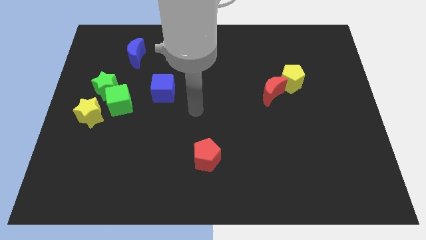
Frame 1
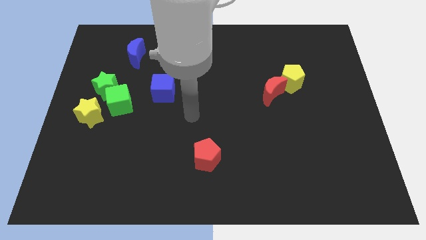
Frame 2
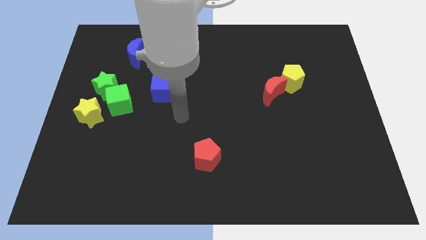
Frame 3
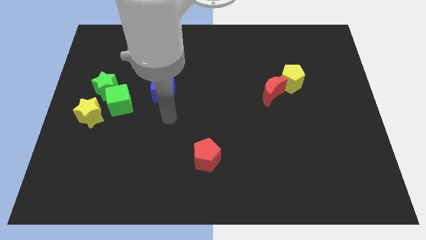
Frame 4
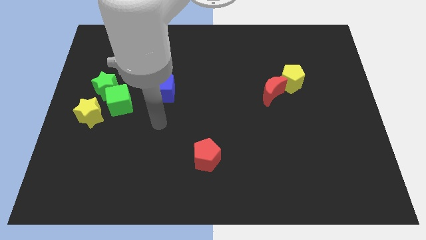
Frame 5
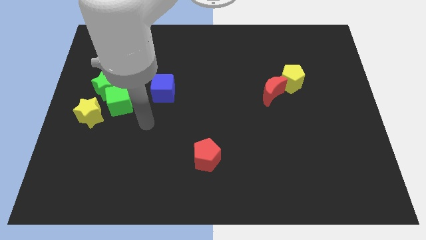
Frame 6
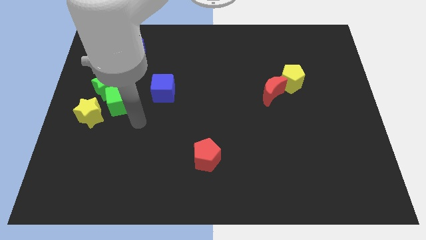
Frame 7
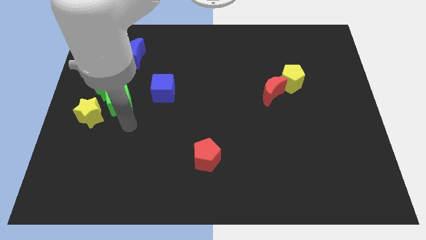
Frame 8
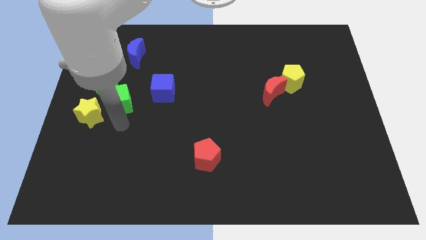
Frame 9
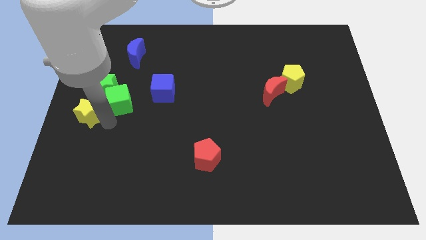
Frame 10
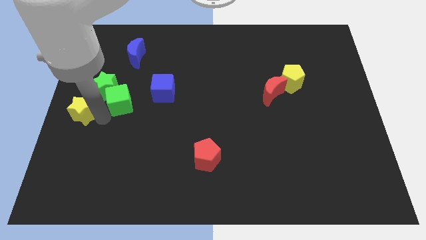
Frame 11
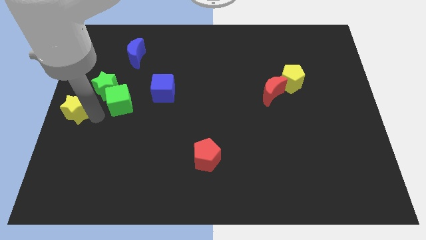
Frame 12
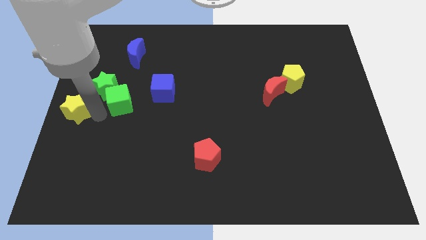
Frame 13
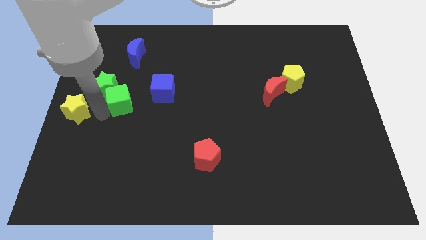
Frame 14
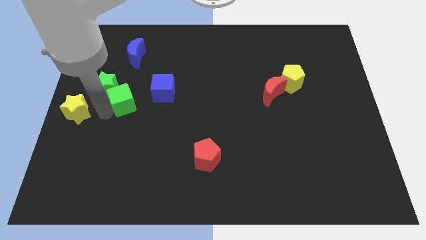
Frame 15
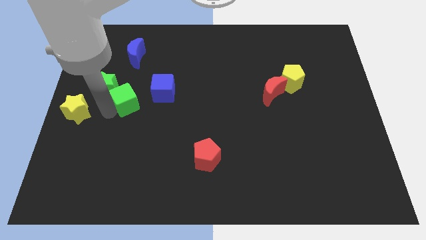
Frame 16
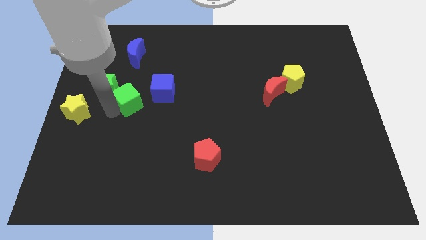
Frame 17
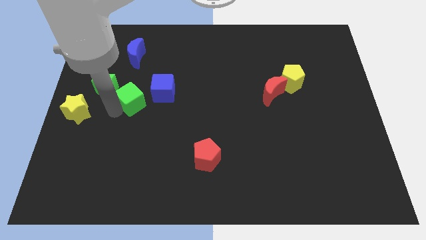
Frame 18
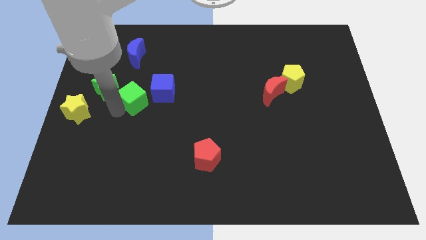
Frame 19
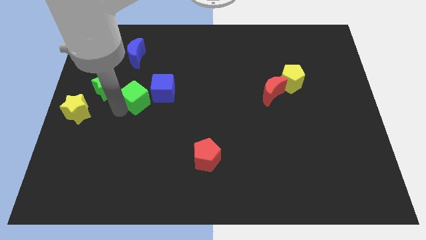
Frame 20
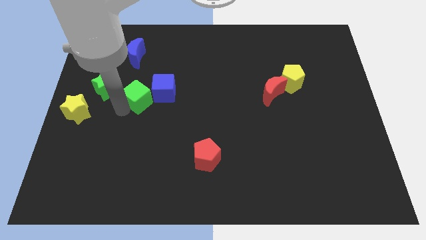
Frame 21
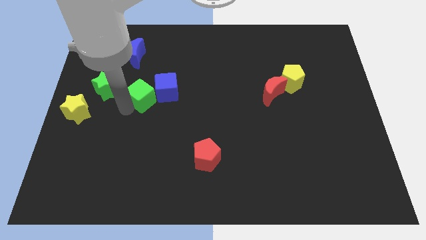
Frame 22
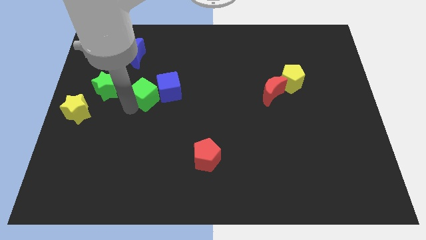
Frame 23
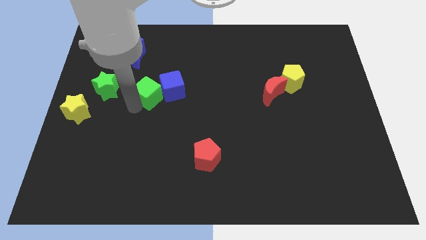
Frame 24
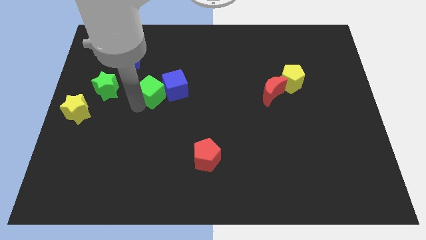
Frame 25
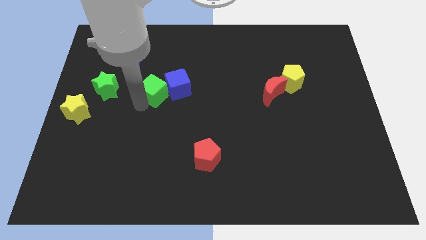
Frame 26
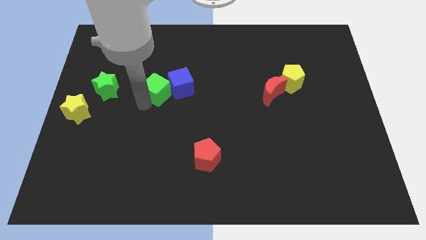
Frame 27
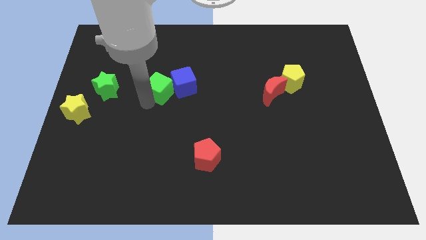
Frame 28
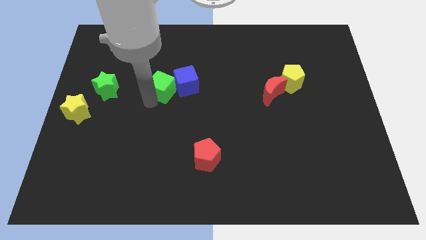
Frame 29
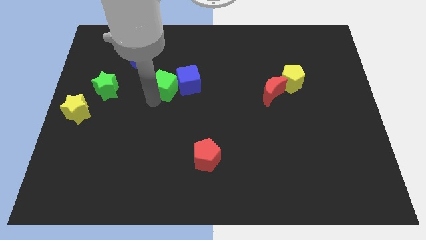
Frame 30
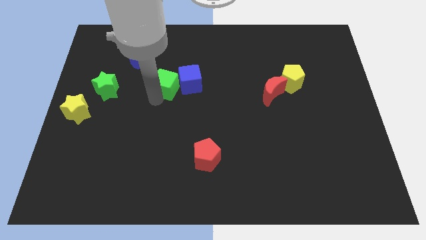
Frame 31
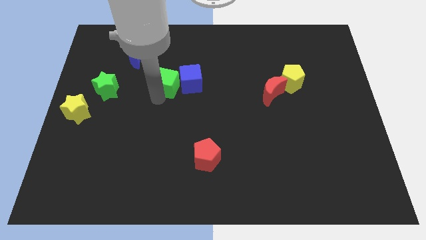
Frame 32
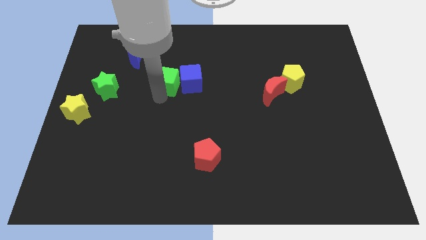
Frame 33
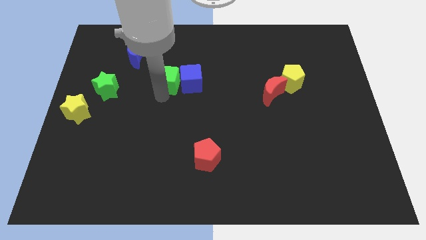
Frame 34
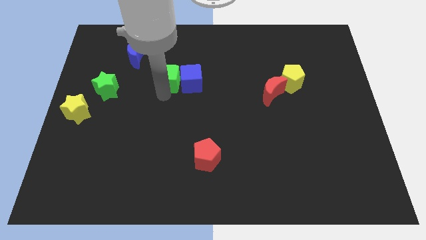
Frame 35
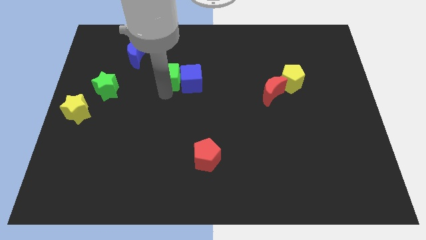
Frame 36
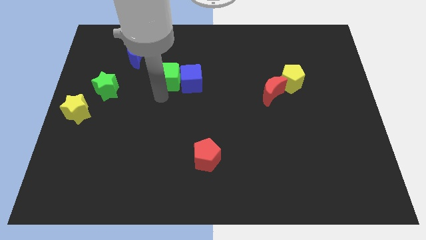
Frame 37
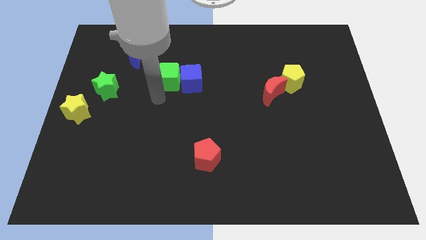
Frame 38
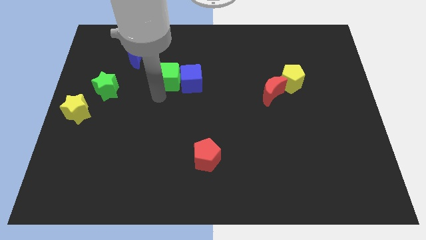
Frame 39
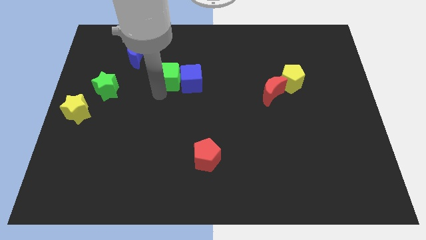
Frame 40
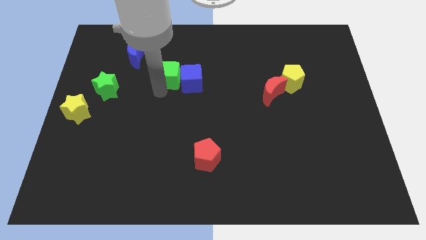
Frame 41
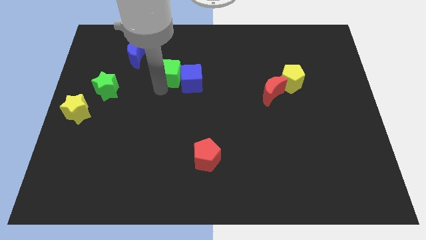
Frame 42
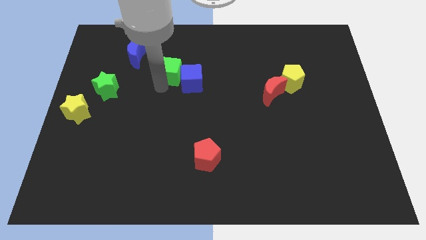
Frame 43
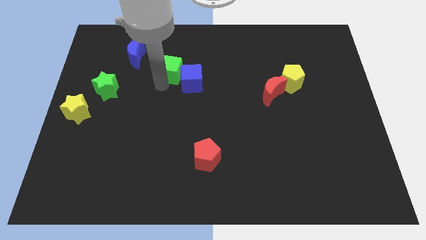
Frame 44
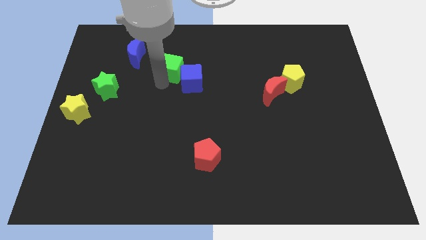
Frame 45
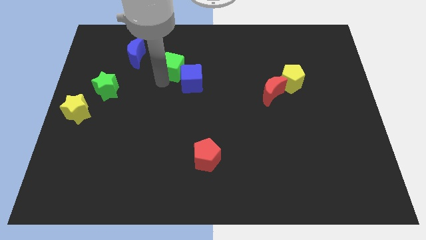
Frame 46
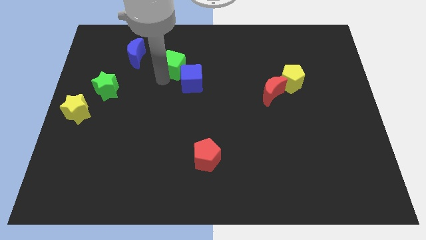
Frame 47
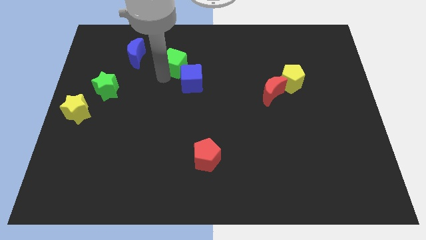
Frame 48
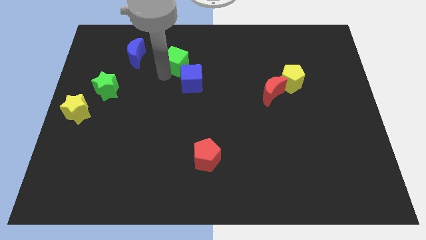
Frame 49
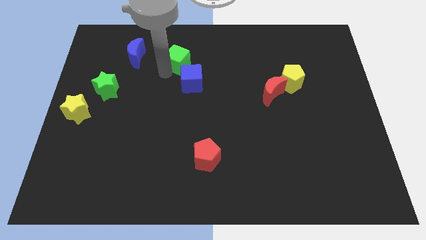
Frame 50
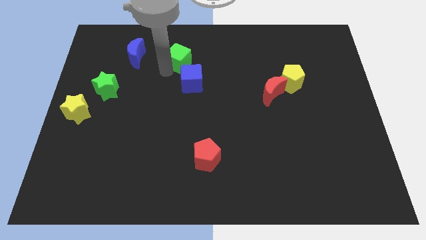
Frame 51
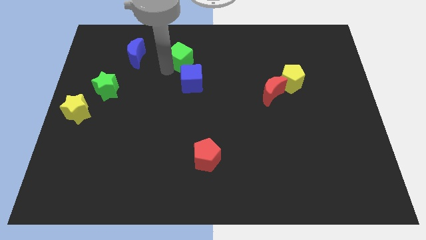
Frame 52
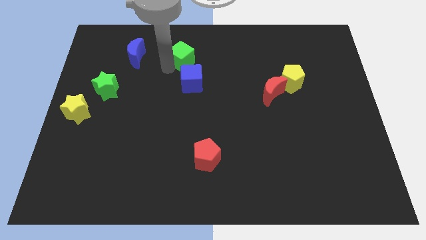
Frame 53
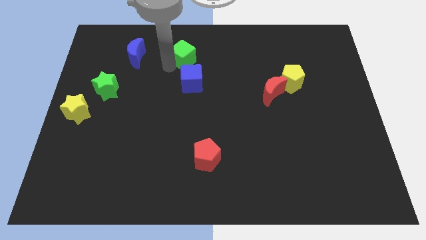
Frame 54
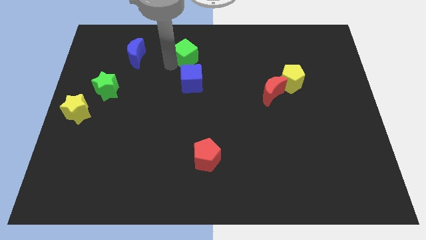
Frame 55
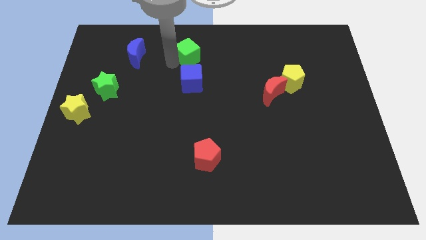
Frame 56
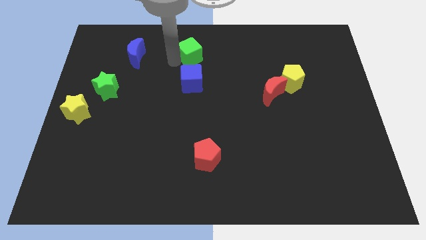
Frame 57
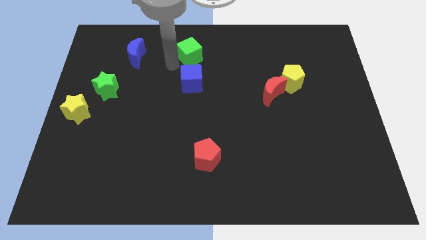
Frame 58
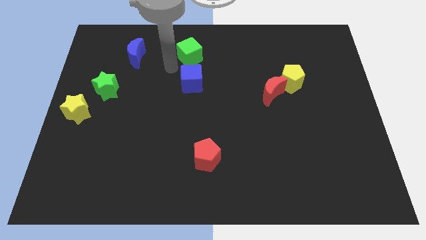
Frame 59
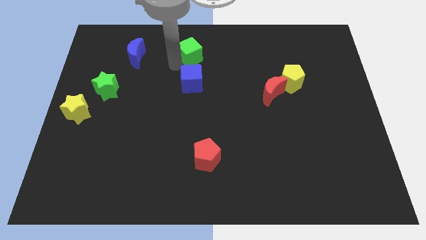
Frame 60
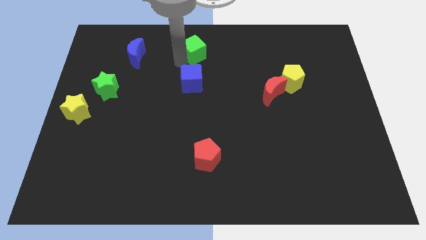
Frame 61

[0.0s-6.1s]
move the green cube to the towards your base

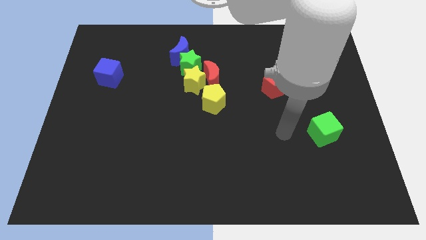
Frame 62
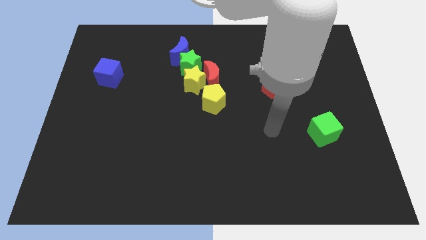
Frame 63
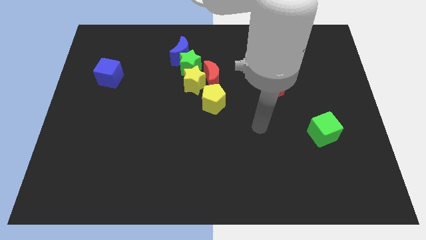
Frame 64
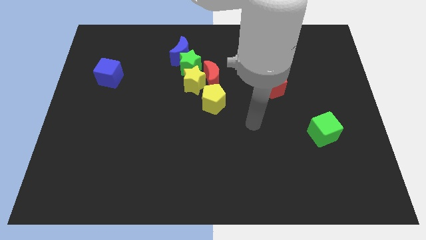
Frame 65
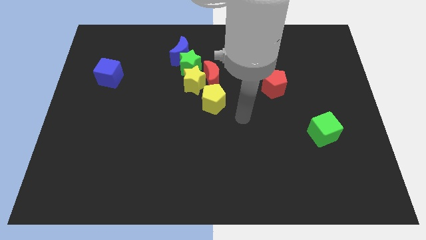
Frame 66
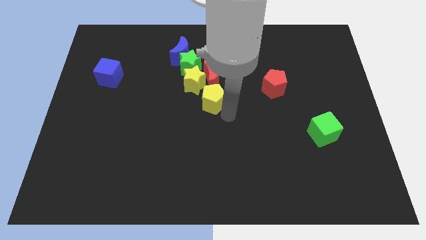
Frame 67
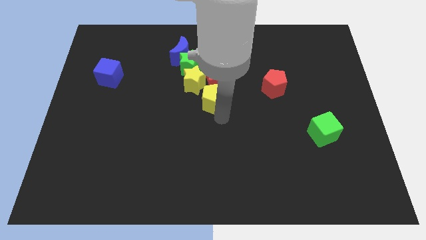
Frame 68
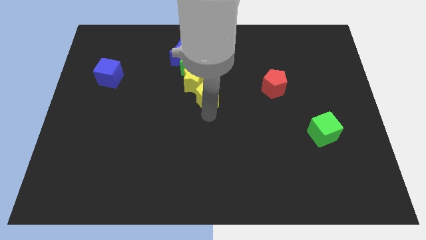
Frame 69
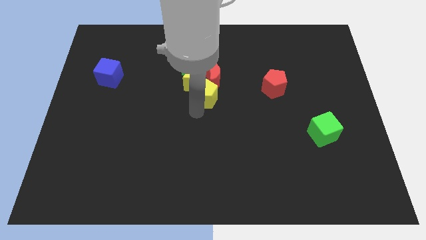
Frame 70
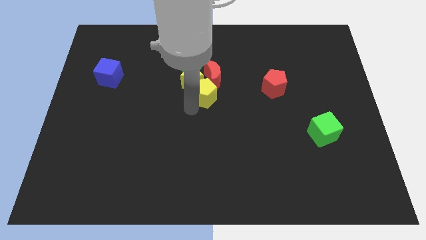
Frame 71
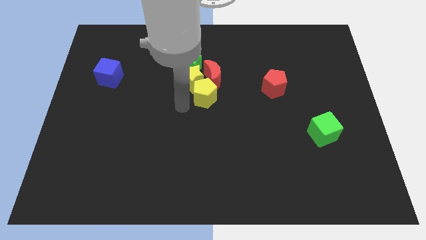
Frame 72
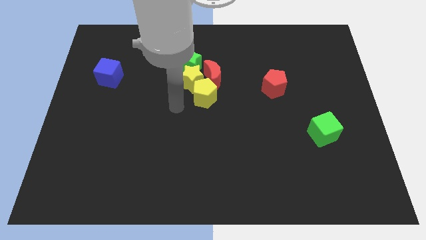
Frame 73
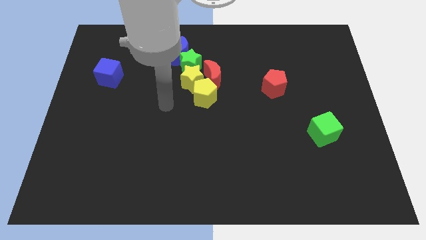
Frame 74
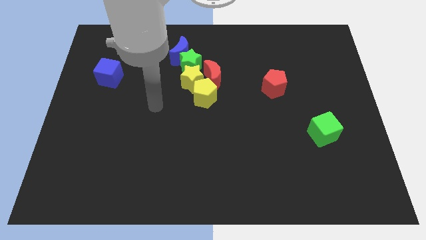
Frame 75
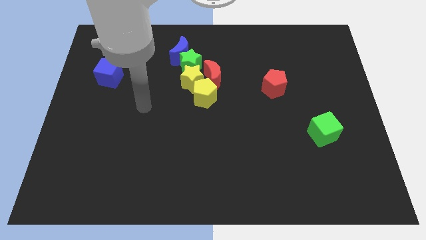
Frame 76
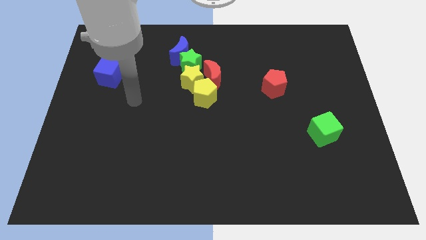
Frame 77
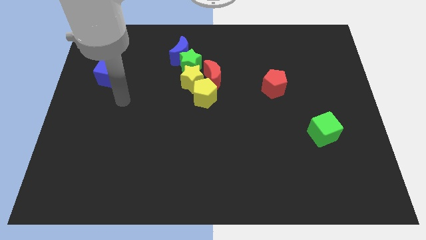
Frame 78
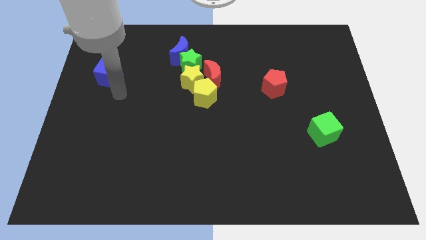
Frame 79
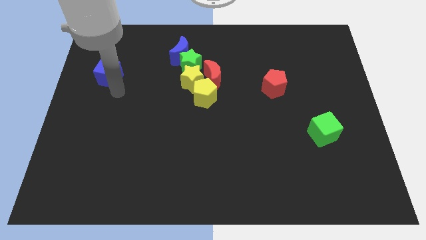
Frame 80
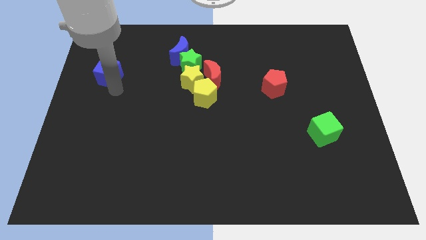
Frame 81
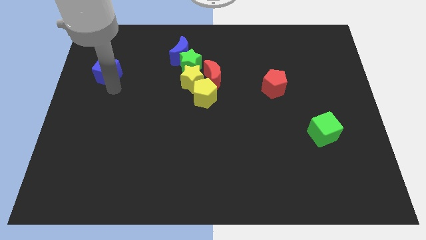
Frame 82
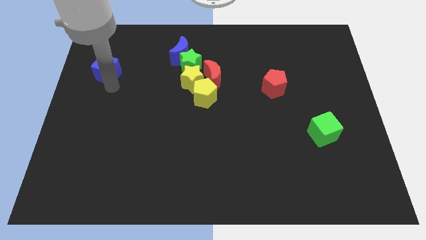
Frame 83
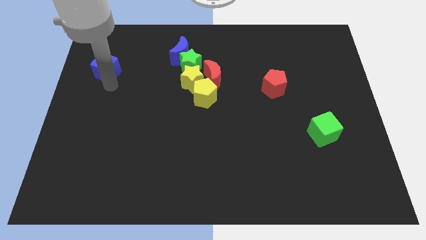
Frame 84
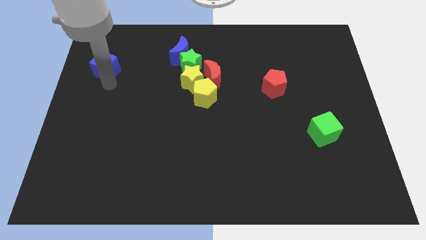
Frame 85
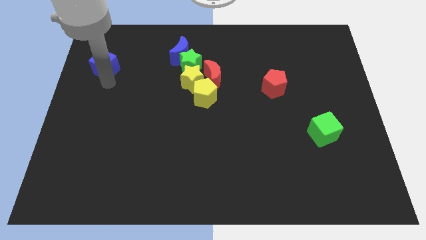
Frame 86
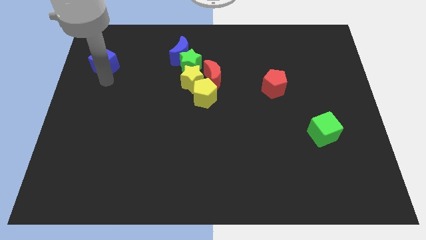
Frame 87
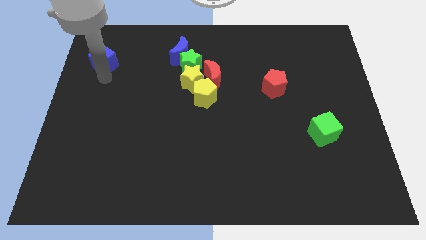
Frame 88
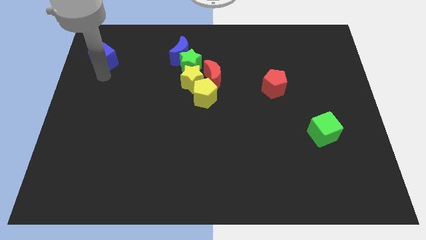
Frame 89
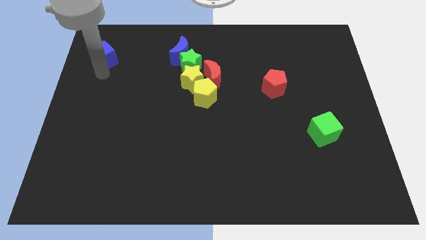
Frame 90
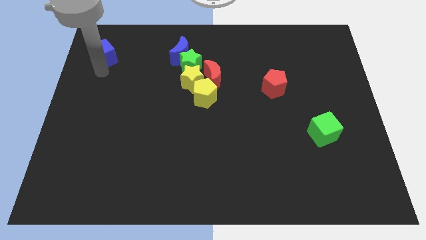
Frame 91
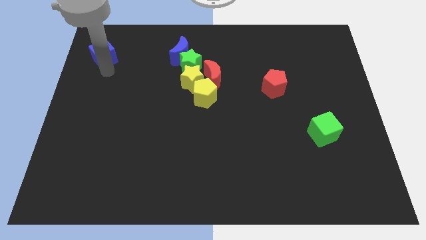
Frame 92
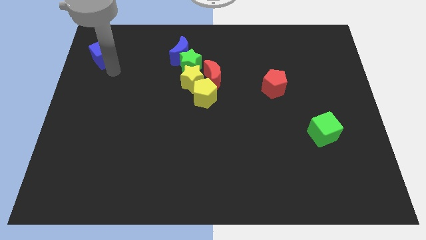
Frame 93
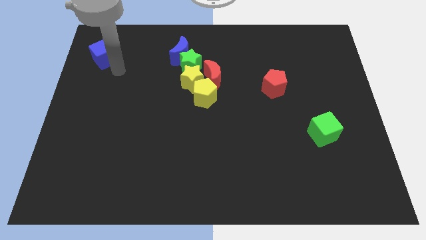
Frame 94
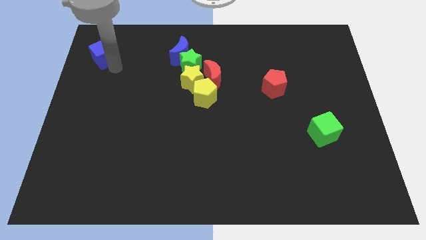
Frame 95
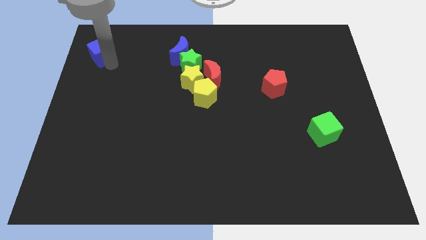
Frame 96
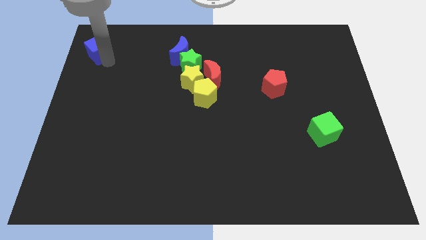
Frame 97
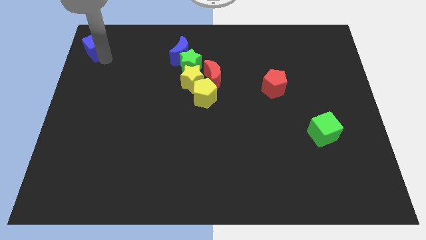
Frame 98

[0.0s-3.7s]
slide the blue cube to the top left corner
